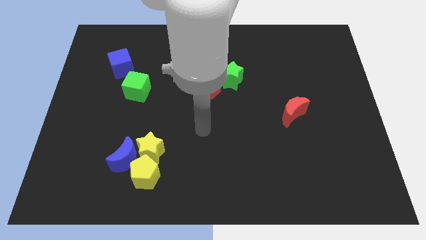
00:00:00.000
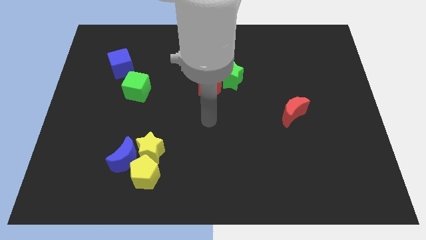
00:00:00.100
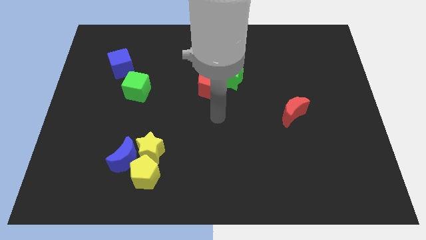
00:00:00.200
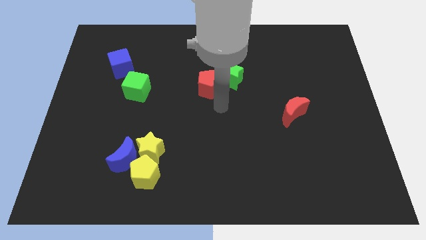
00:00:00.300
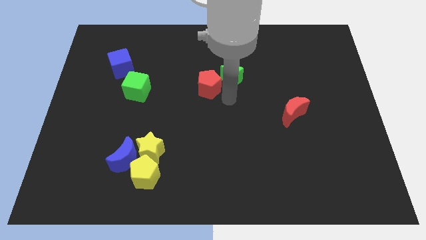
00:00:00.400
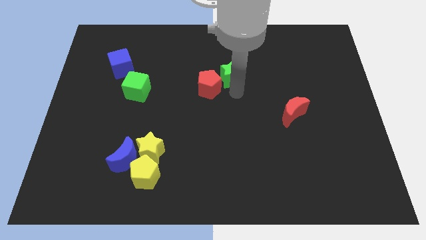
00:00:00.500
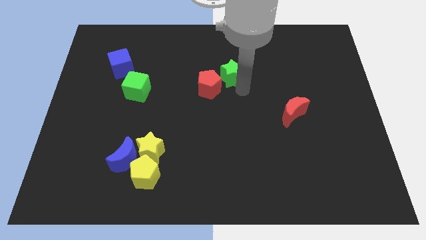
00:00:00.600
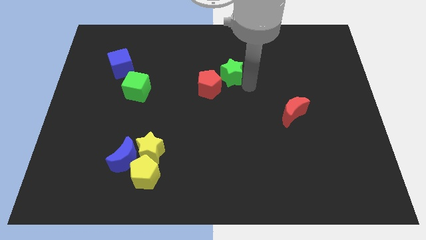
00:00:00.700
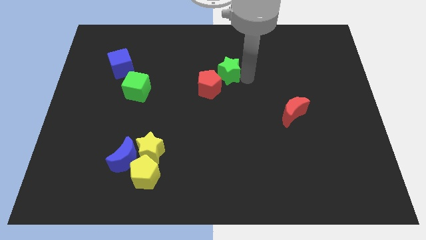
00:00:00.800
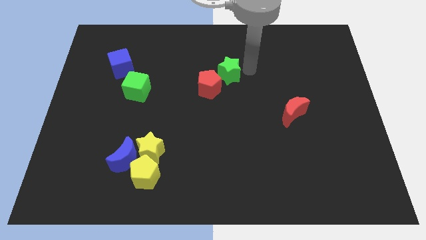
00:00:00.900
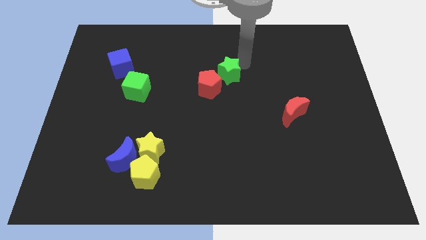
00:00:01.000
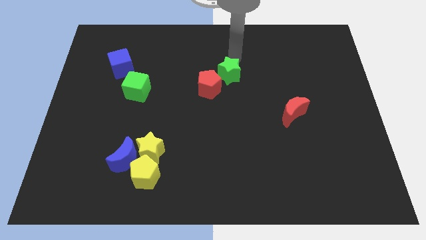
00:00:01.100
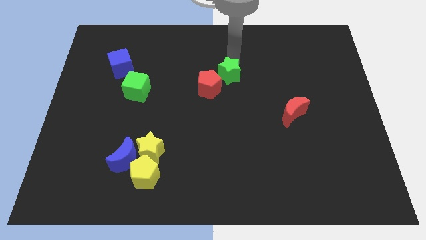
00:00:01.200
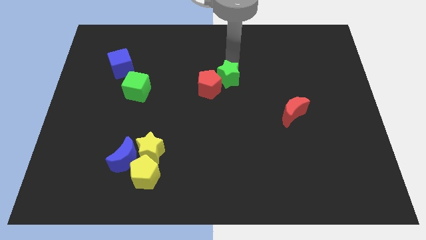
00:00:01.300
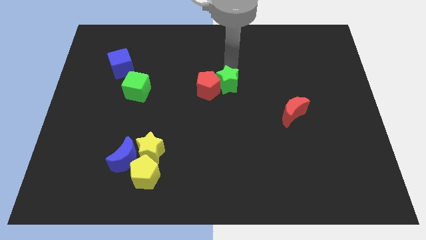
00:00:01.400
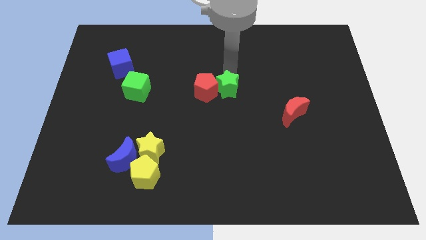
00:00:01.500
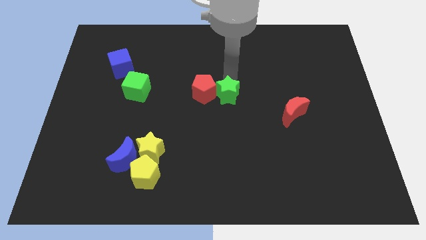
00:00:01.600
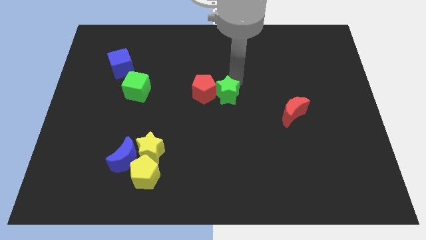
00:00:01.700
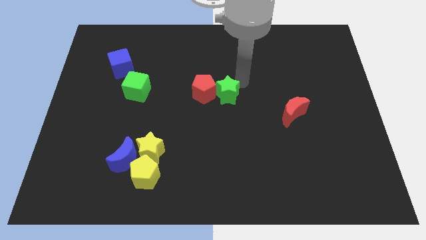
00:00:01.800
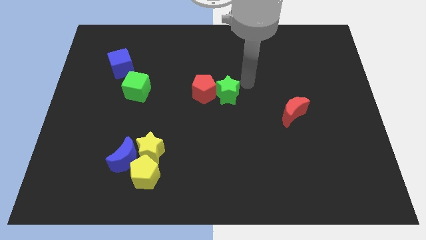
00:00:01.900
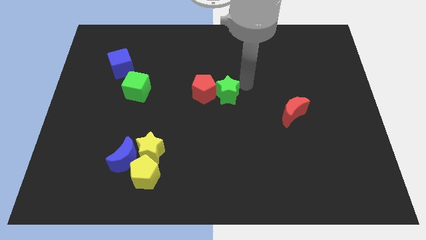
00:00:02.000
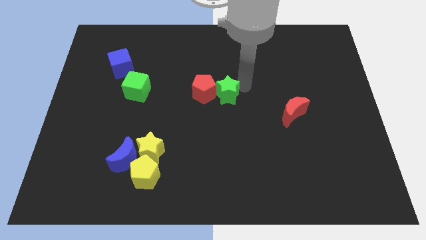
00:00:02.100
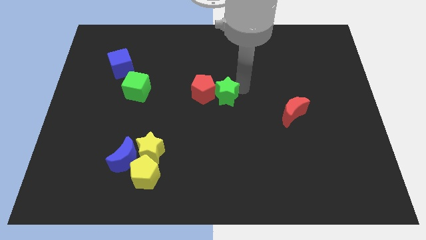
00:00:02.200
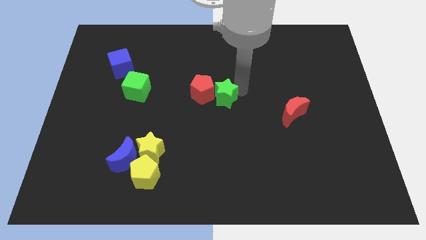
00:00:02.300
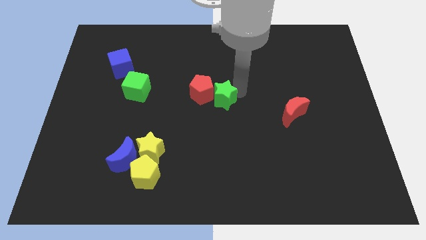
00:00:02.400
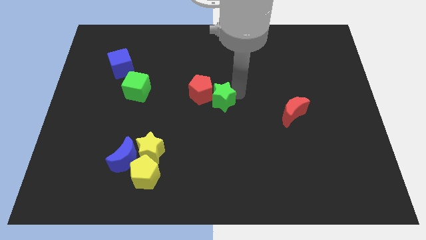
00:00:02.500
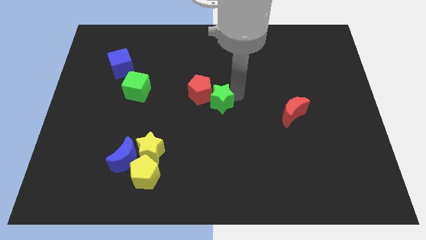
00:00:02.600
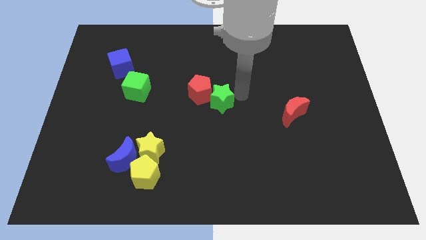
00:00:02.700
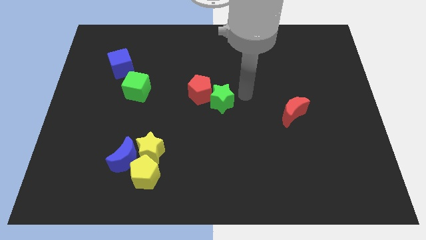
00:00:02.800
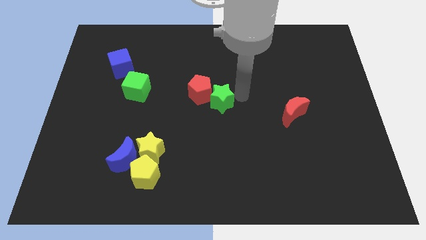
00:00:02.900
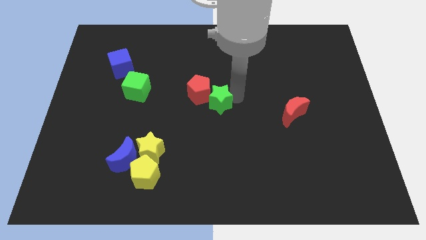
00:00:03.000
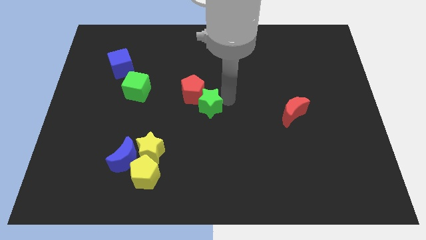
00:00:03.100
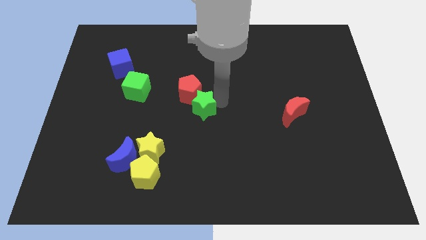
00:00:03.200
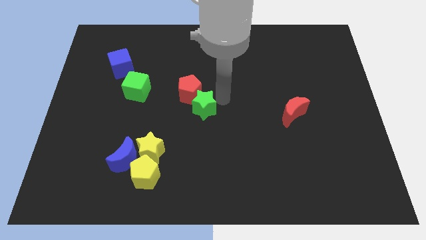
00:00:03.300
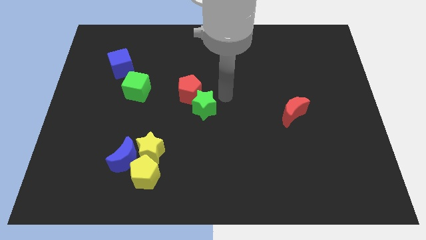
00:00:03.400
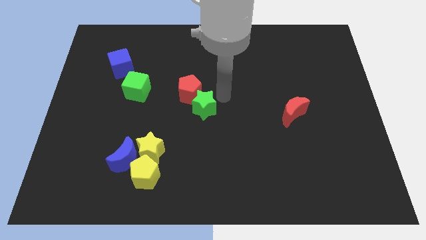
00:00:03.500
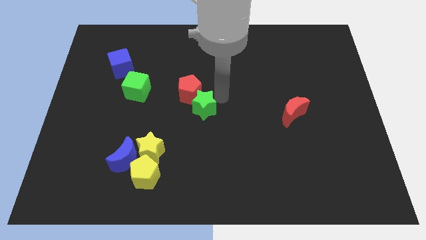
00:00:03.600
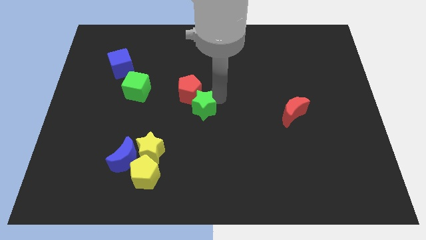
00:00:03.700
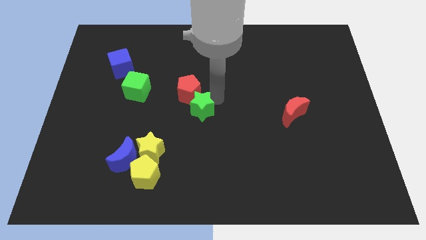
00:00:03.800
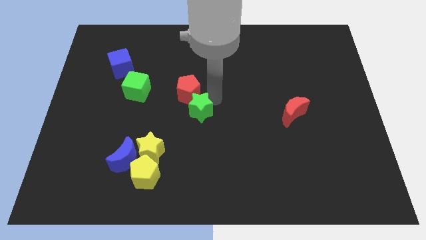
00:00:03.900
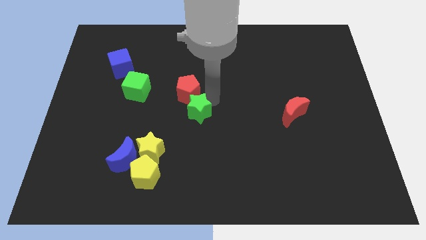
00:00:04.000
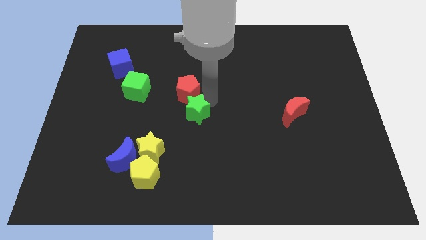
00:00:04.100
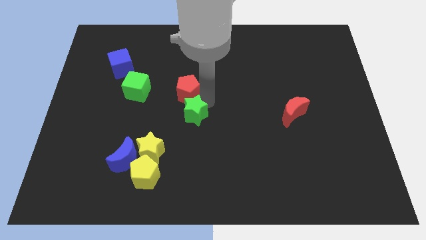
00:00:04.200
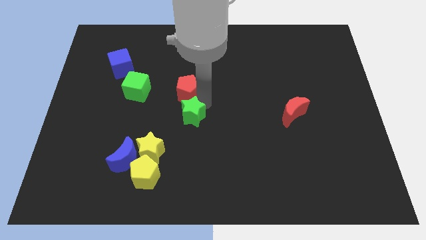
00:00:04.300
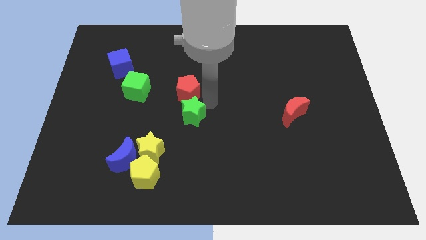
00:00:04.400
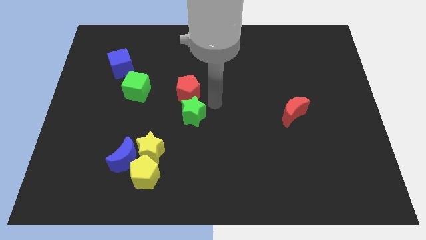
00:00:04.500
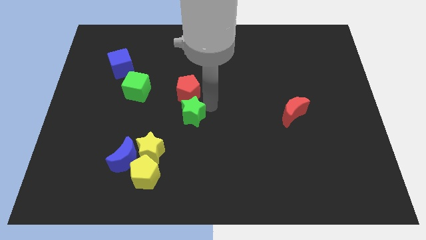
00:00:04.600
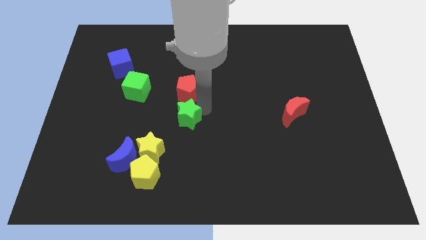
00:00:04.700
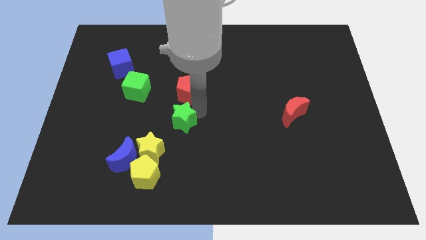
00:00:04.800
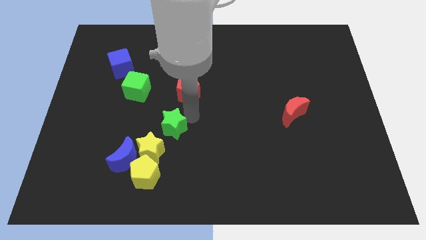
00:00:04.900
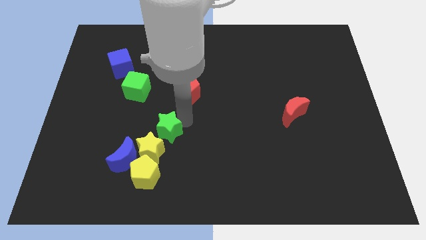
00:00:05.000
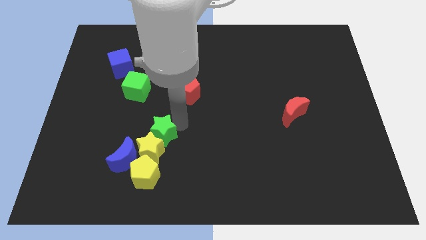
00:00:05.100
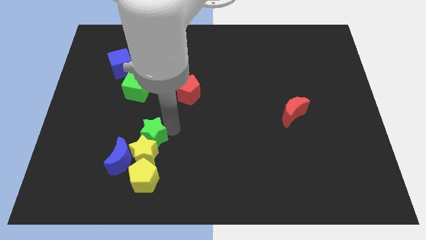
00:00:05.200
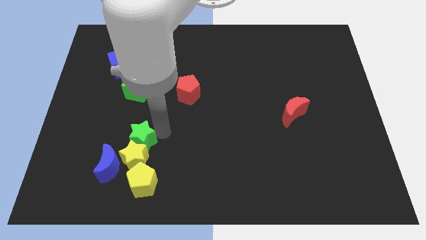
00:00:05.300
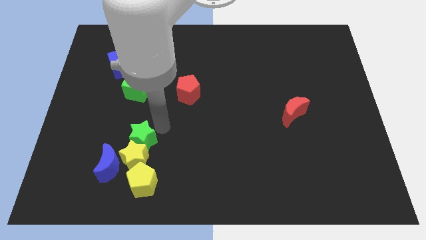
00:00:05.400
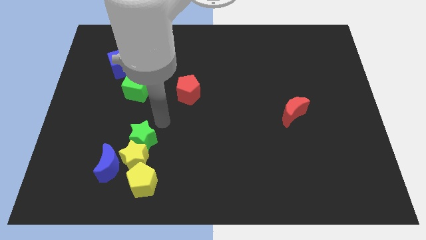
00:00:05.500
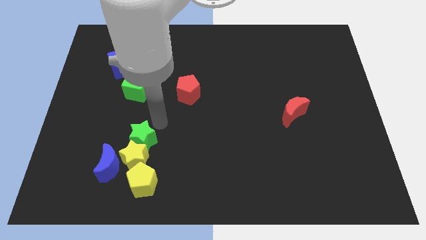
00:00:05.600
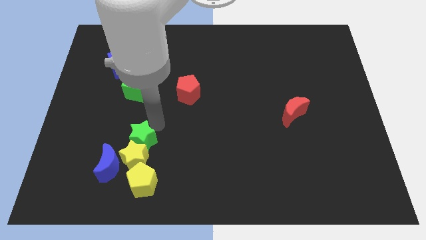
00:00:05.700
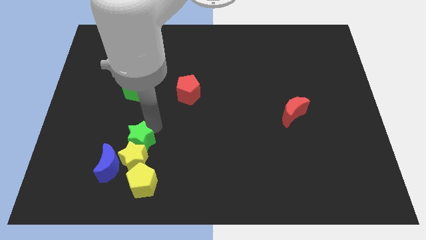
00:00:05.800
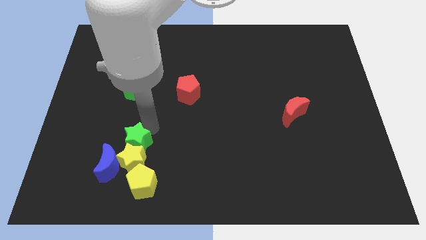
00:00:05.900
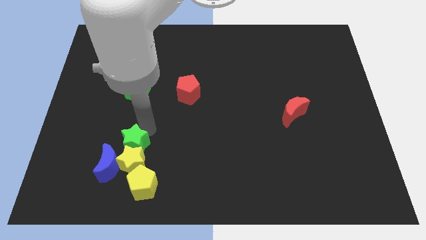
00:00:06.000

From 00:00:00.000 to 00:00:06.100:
push the green star to the top left of the yellow pentagon
